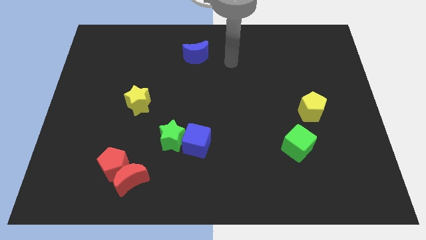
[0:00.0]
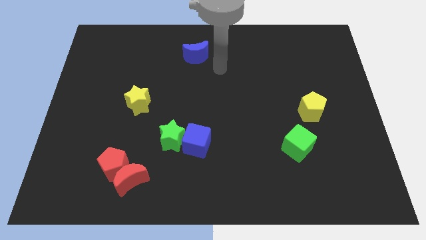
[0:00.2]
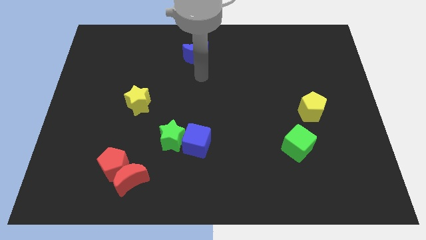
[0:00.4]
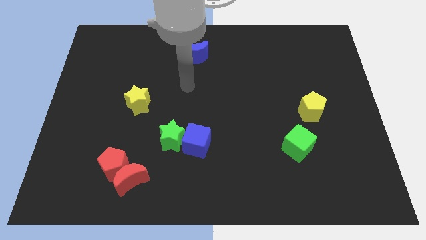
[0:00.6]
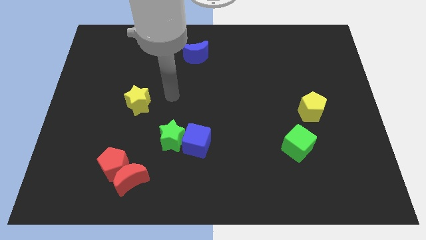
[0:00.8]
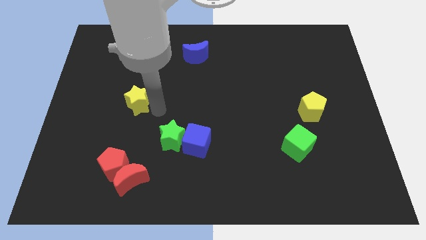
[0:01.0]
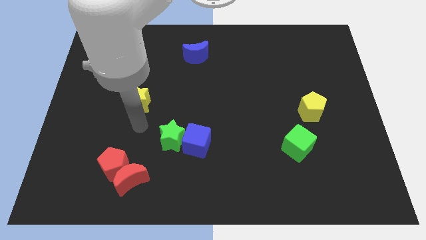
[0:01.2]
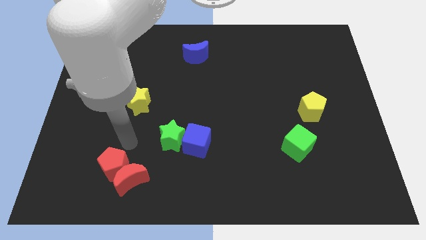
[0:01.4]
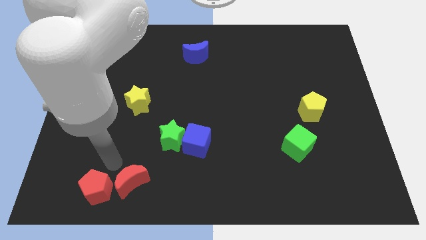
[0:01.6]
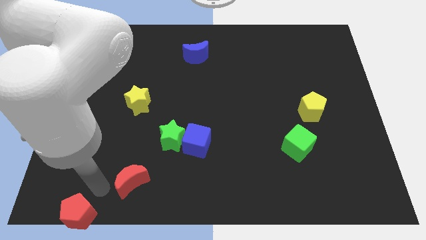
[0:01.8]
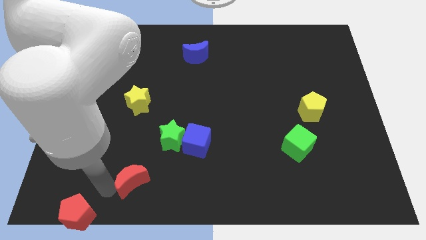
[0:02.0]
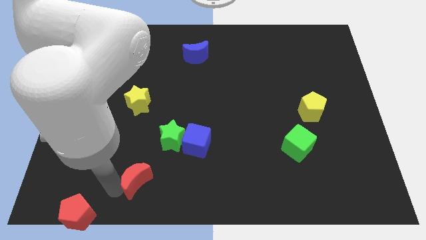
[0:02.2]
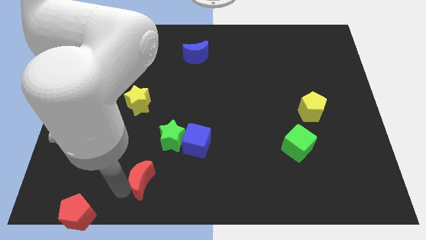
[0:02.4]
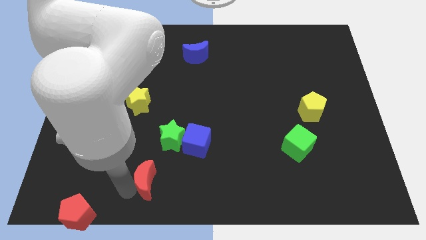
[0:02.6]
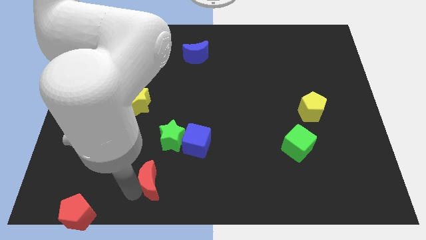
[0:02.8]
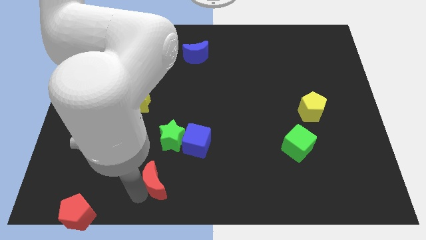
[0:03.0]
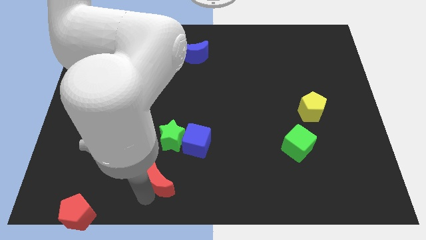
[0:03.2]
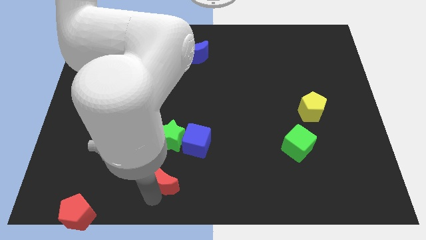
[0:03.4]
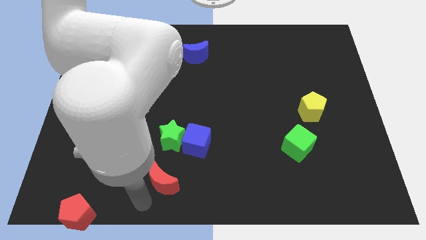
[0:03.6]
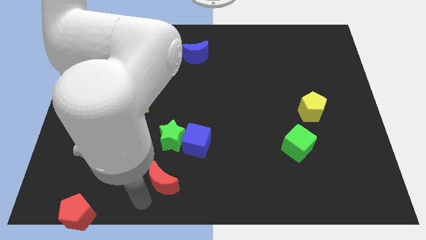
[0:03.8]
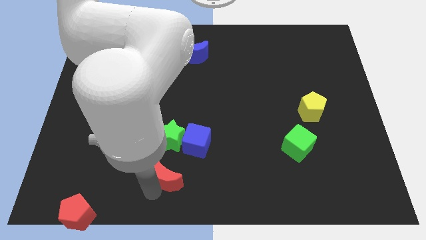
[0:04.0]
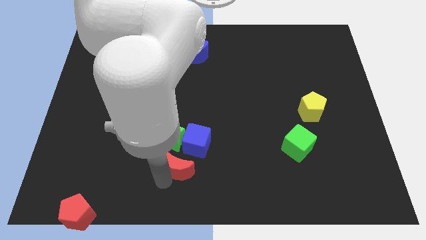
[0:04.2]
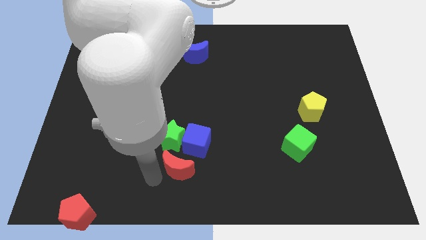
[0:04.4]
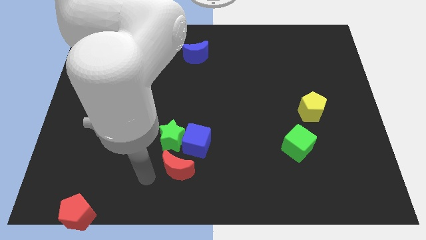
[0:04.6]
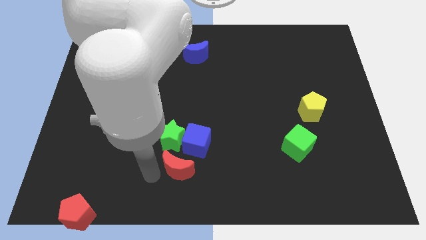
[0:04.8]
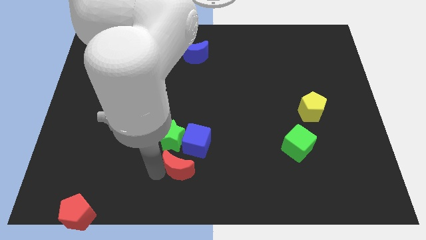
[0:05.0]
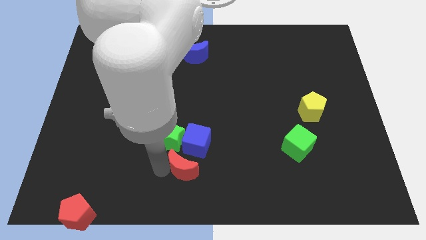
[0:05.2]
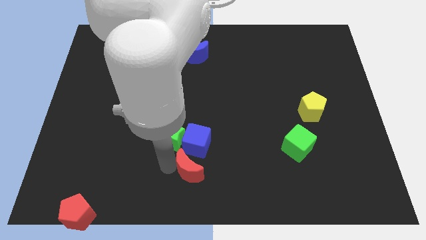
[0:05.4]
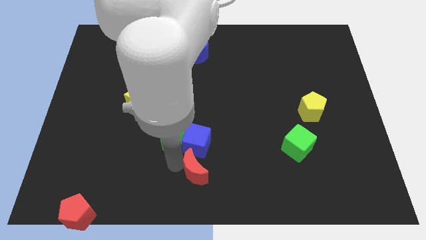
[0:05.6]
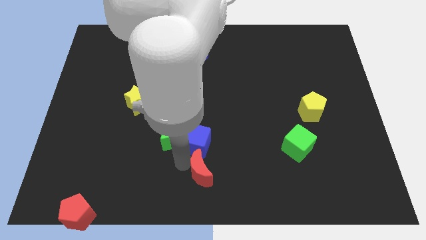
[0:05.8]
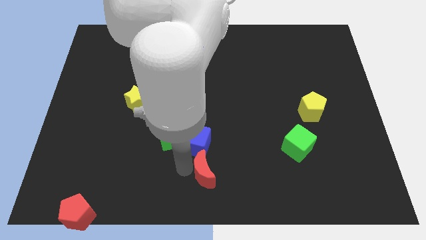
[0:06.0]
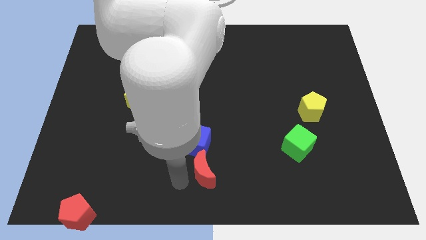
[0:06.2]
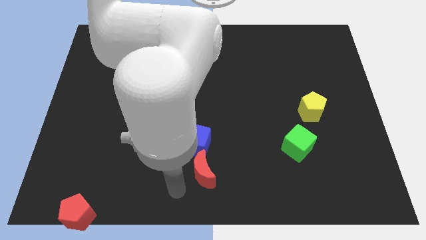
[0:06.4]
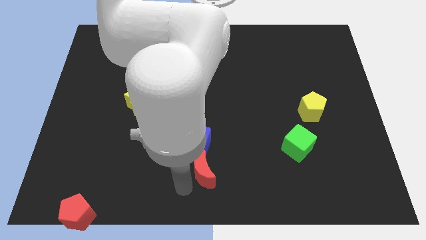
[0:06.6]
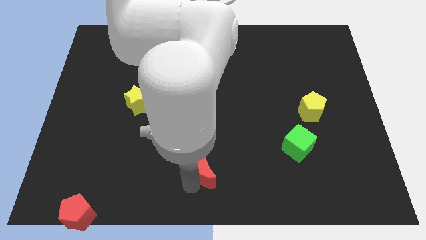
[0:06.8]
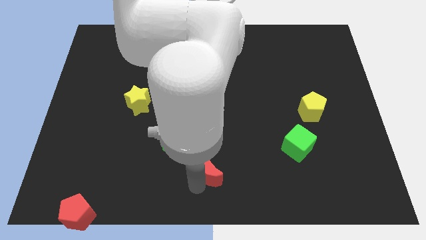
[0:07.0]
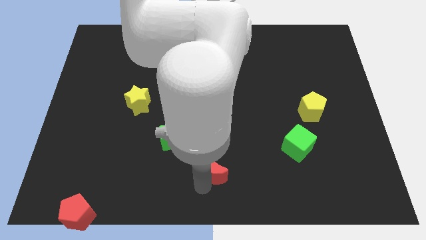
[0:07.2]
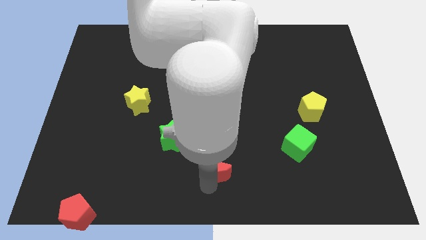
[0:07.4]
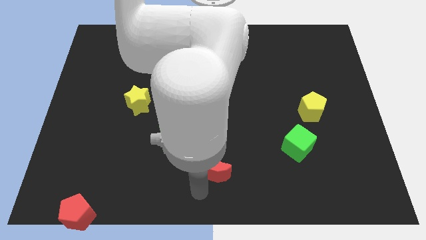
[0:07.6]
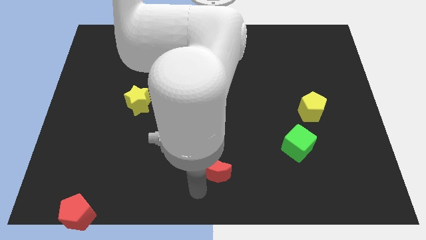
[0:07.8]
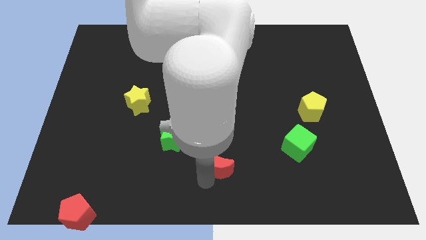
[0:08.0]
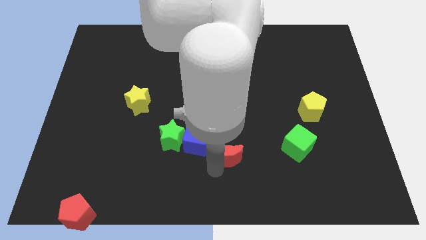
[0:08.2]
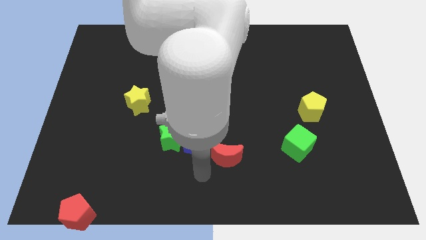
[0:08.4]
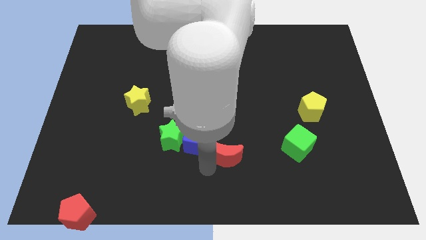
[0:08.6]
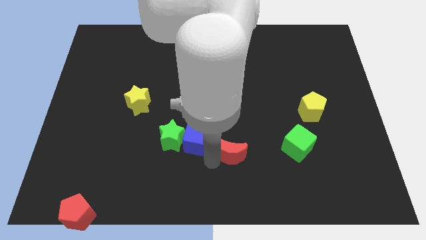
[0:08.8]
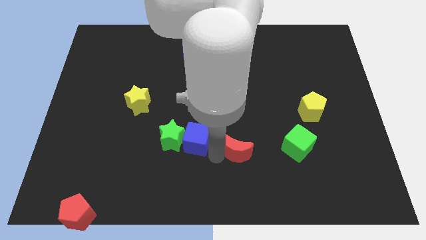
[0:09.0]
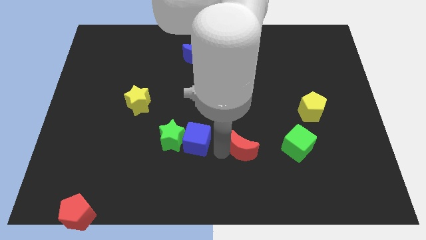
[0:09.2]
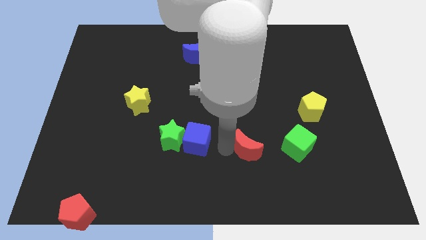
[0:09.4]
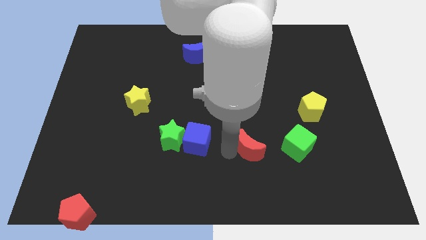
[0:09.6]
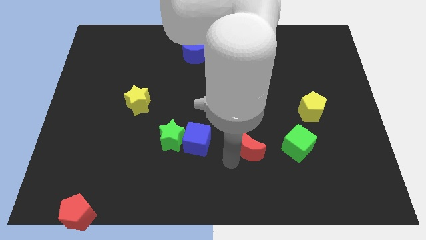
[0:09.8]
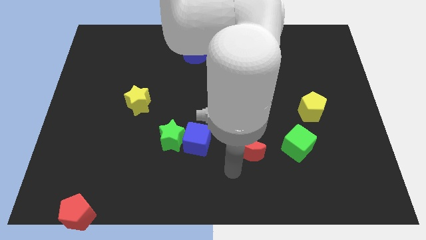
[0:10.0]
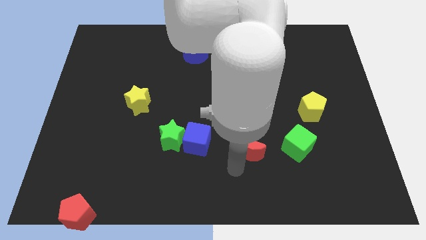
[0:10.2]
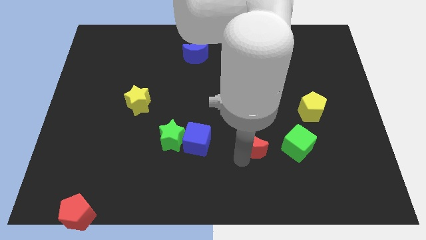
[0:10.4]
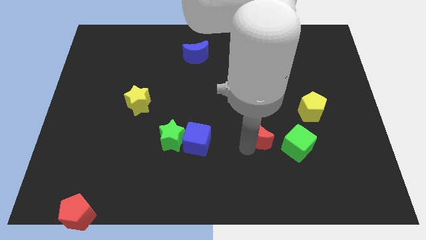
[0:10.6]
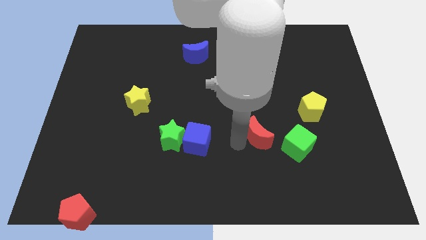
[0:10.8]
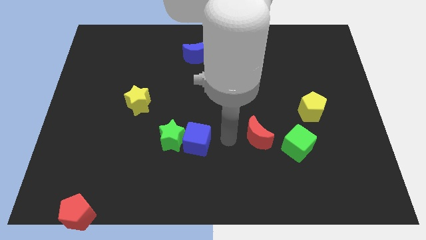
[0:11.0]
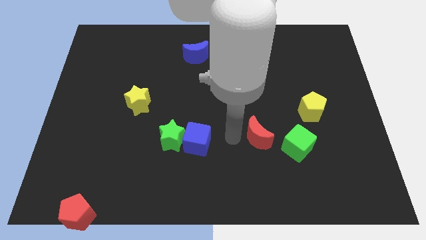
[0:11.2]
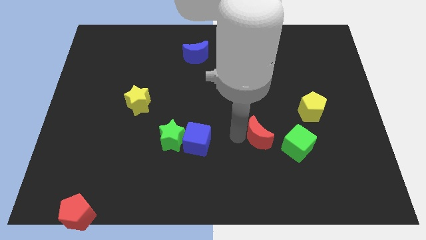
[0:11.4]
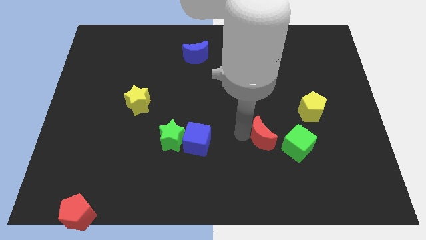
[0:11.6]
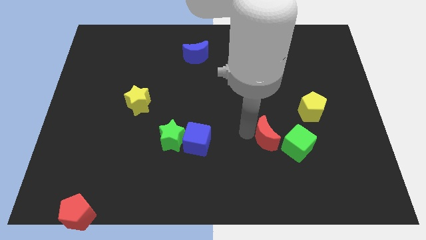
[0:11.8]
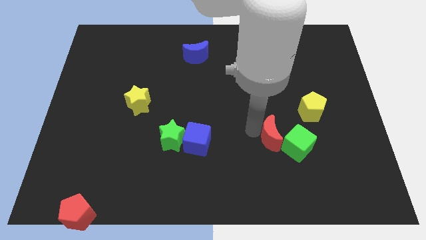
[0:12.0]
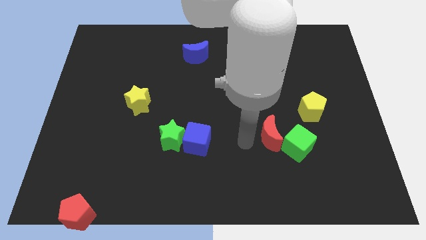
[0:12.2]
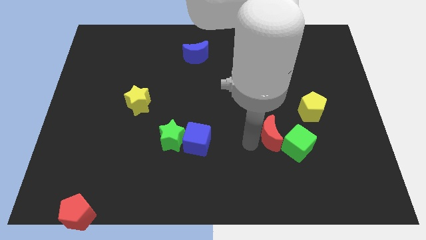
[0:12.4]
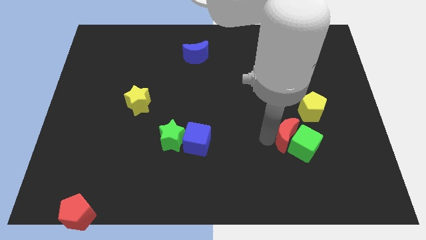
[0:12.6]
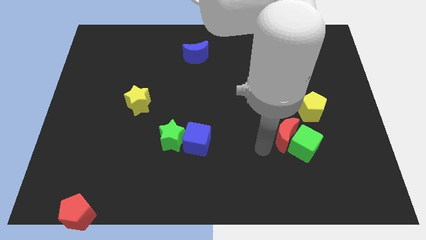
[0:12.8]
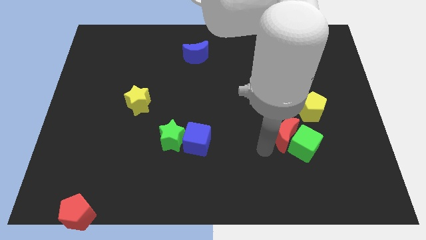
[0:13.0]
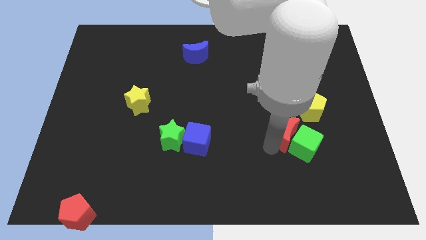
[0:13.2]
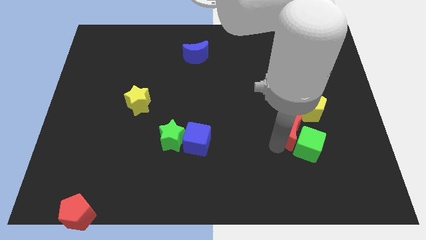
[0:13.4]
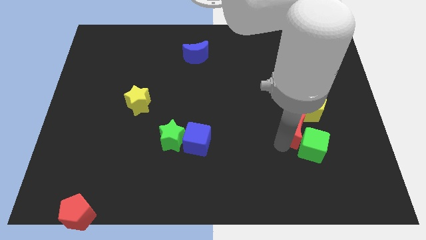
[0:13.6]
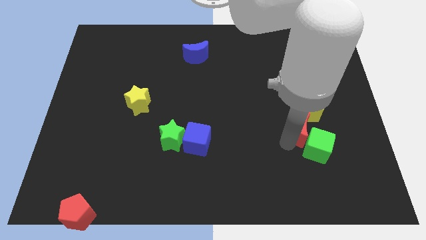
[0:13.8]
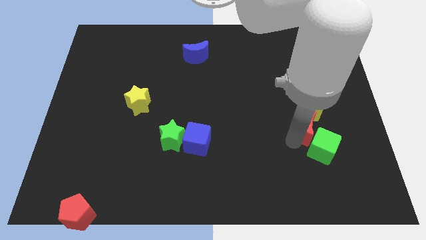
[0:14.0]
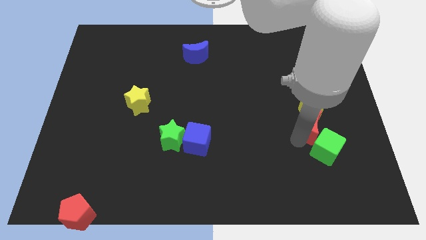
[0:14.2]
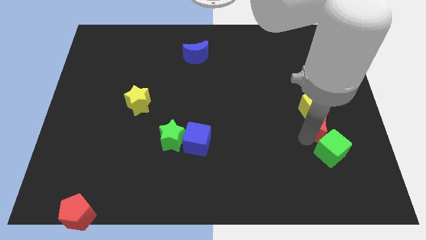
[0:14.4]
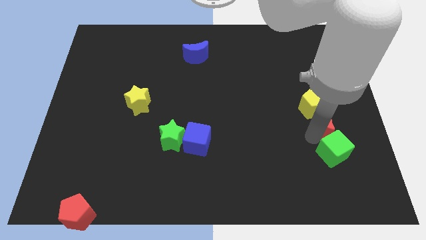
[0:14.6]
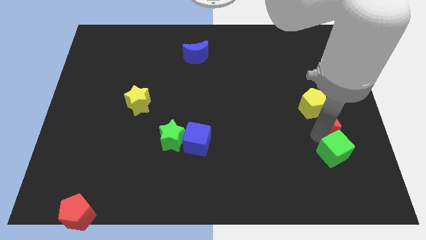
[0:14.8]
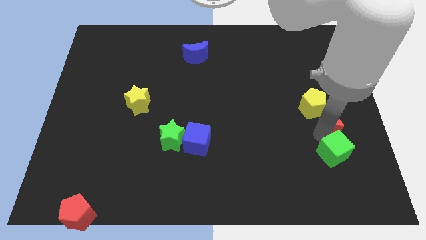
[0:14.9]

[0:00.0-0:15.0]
move the red moon to the right side
